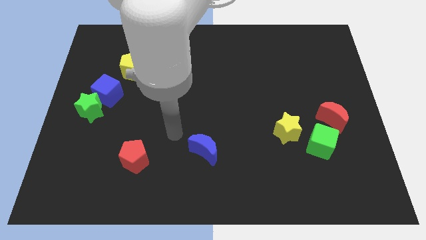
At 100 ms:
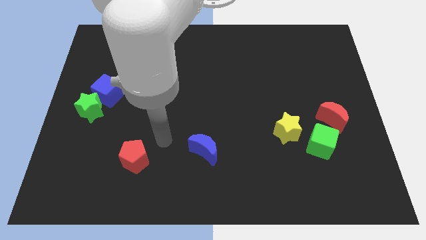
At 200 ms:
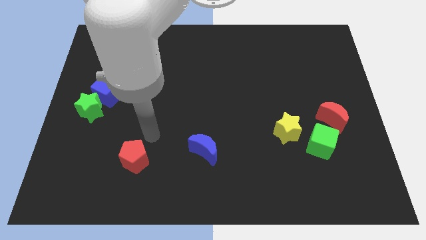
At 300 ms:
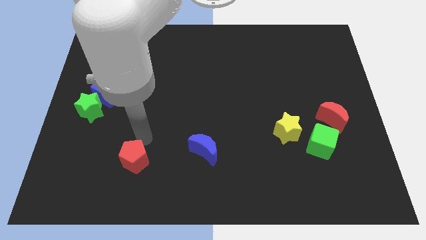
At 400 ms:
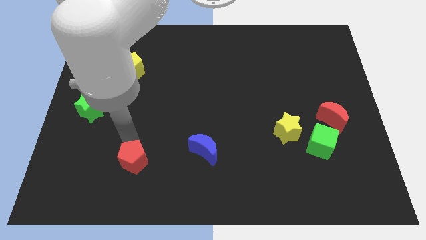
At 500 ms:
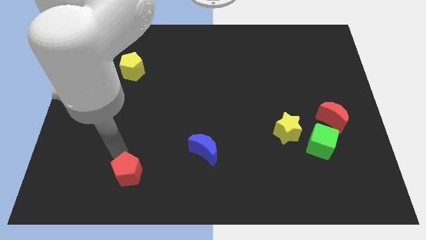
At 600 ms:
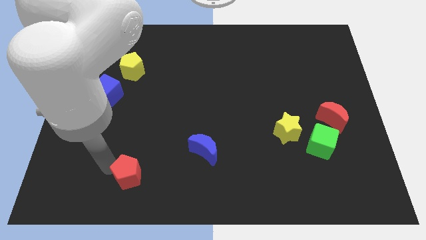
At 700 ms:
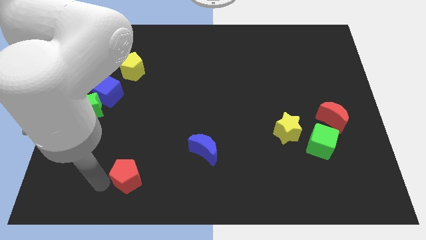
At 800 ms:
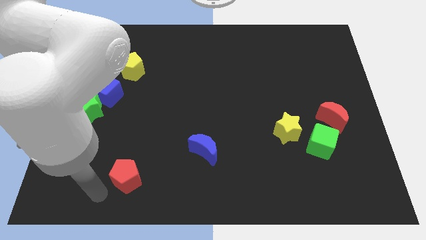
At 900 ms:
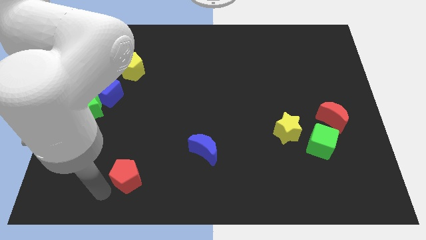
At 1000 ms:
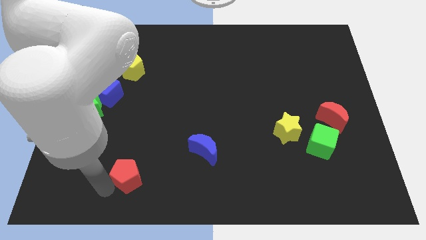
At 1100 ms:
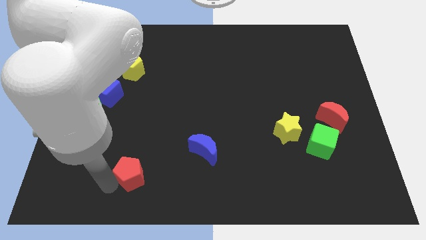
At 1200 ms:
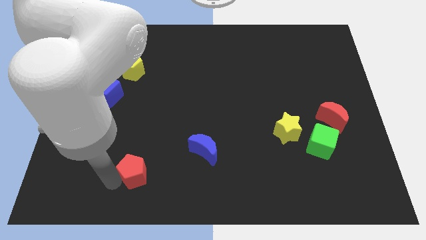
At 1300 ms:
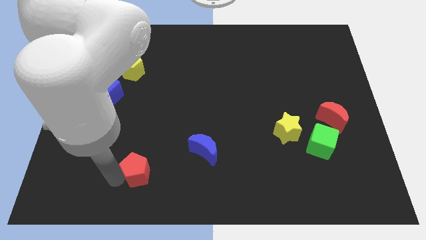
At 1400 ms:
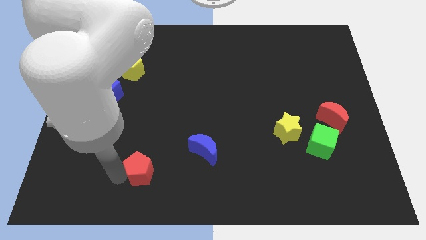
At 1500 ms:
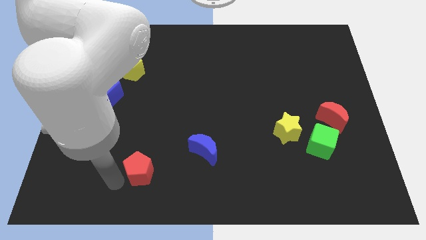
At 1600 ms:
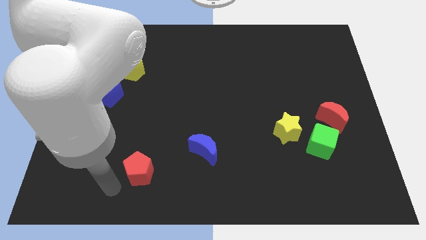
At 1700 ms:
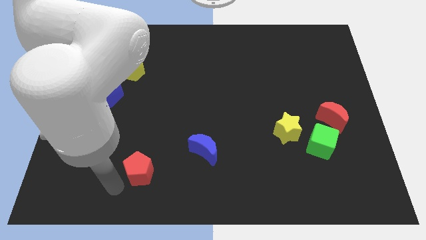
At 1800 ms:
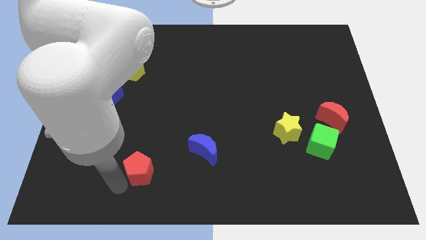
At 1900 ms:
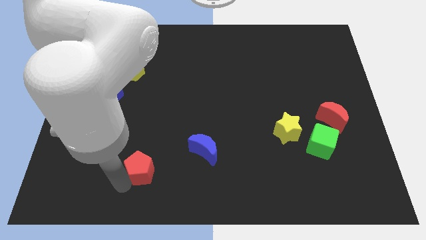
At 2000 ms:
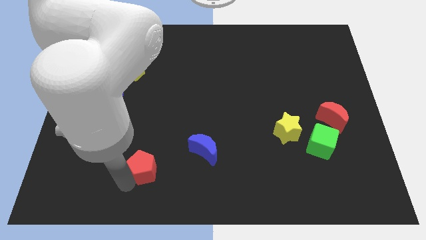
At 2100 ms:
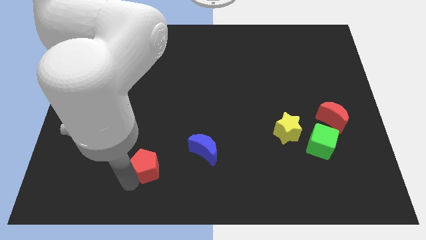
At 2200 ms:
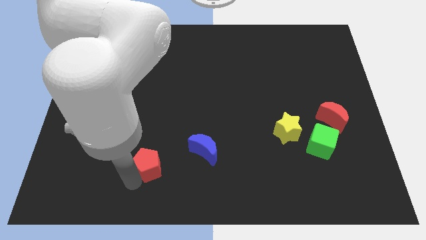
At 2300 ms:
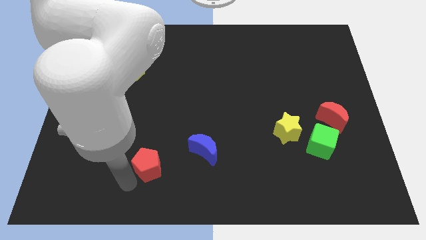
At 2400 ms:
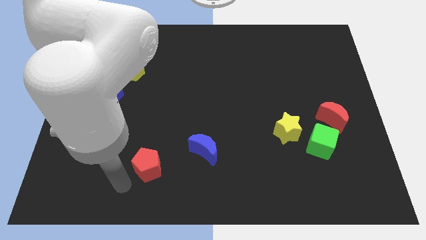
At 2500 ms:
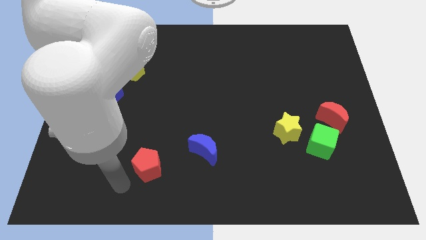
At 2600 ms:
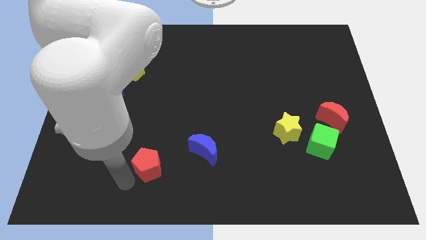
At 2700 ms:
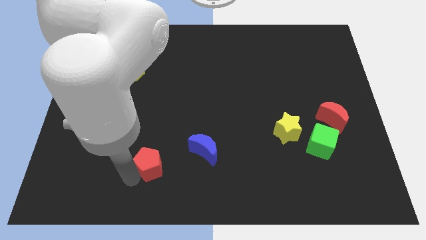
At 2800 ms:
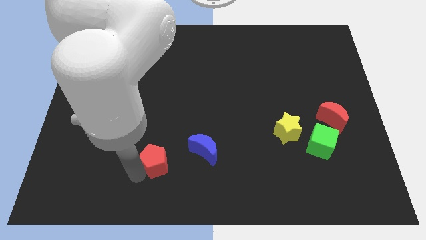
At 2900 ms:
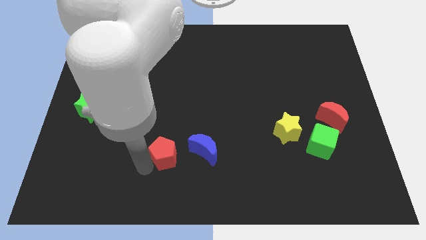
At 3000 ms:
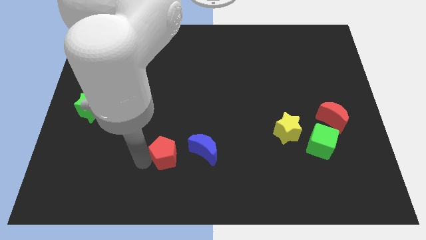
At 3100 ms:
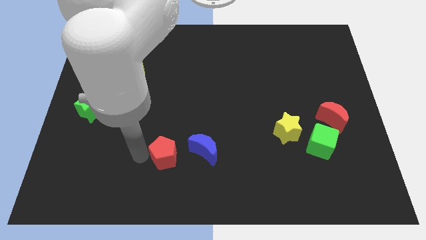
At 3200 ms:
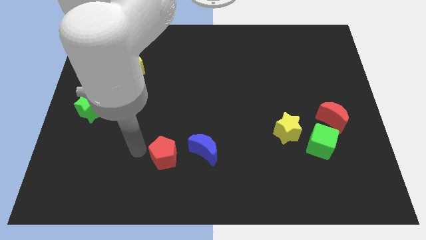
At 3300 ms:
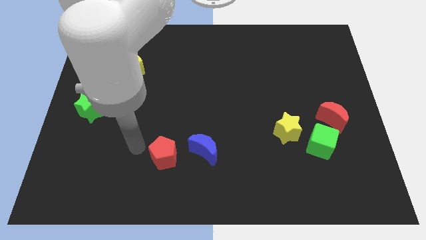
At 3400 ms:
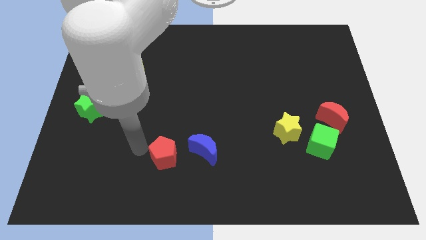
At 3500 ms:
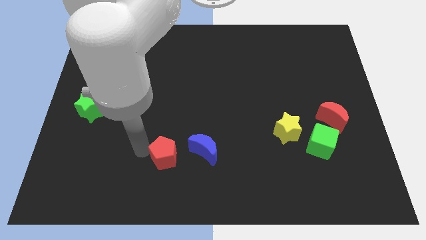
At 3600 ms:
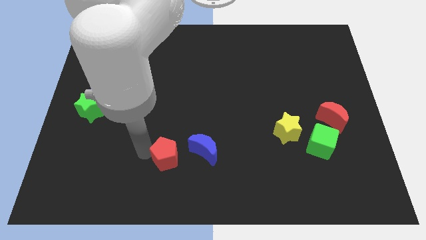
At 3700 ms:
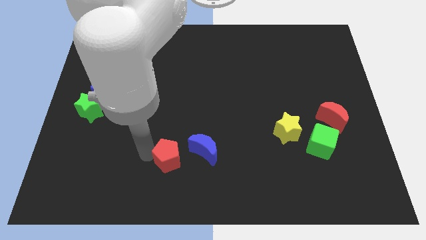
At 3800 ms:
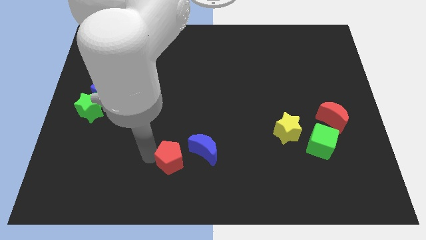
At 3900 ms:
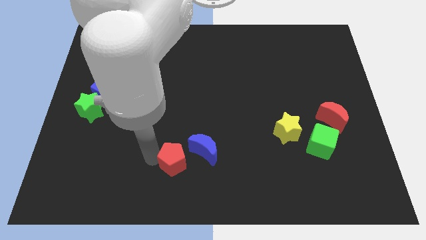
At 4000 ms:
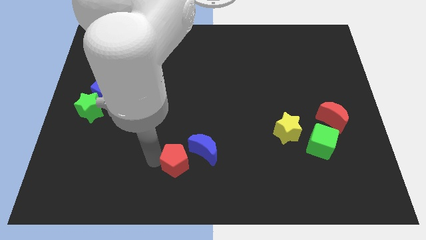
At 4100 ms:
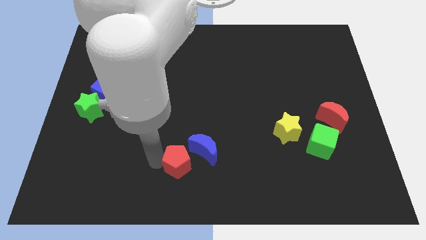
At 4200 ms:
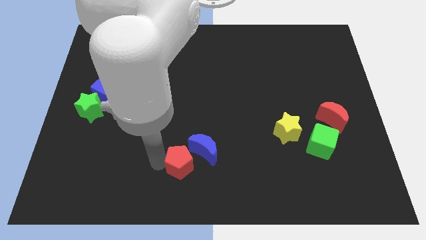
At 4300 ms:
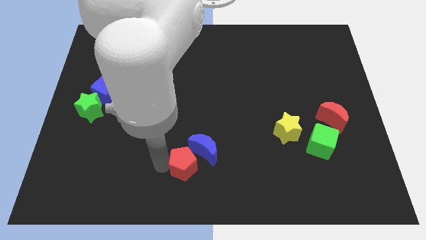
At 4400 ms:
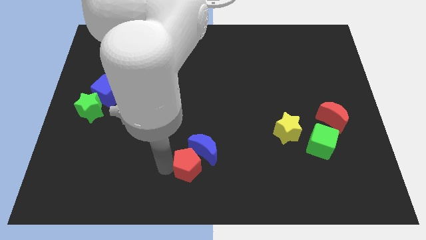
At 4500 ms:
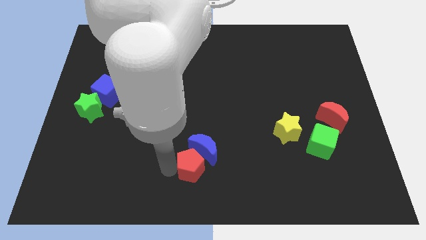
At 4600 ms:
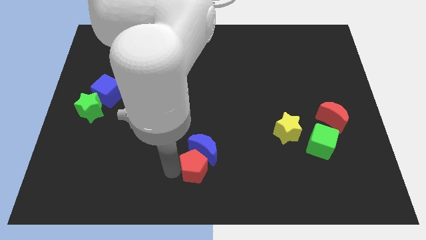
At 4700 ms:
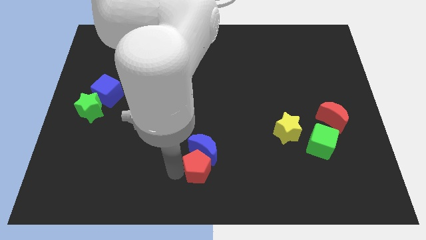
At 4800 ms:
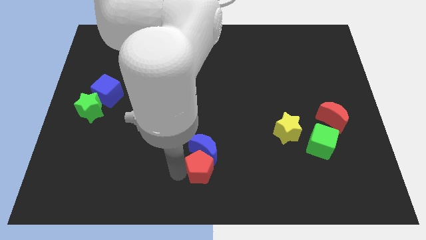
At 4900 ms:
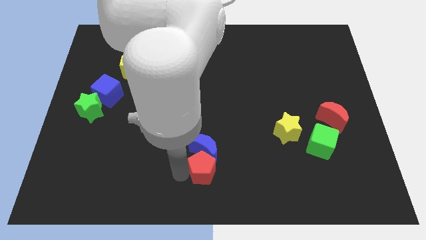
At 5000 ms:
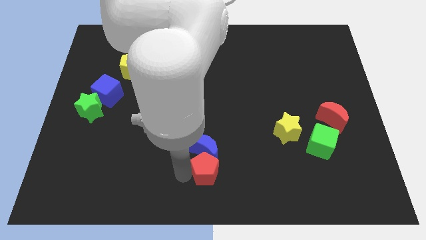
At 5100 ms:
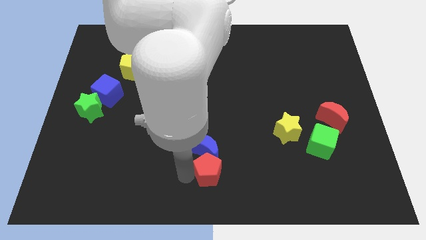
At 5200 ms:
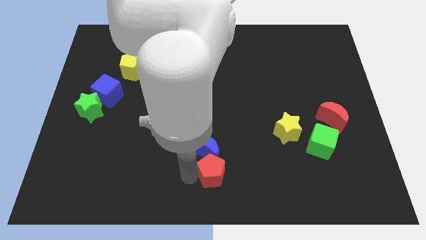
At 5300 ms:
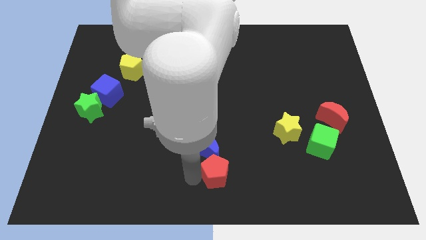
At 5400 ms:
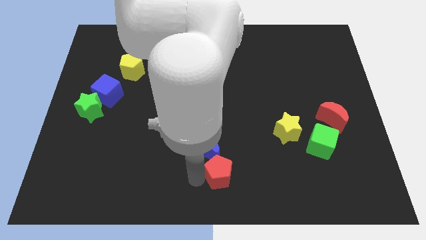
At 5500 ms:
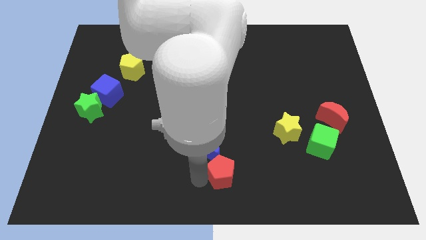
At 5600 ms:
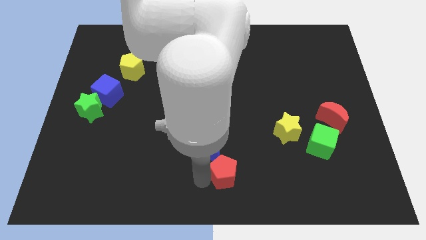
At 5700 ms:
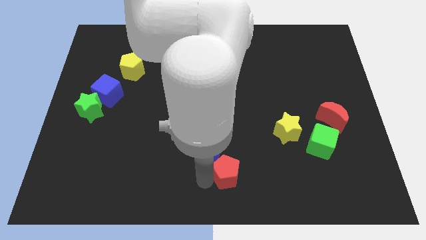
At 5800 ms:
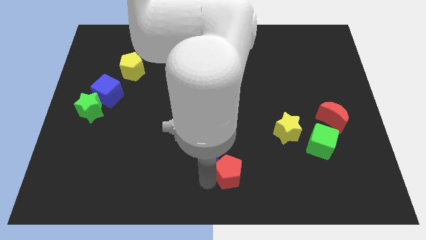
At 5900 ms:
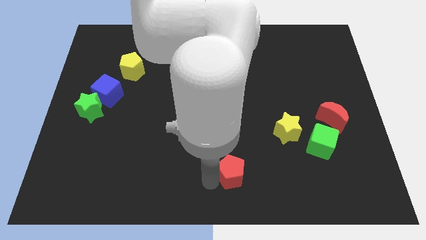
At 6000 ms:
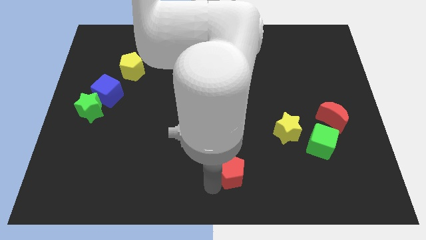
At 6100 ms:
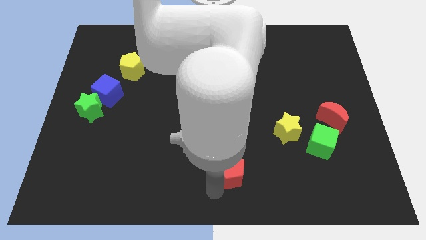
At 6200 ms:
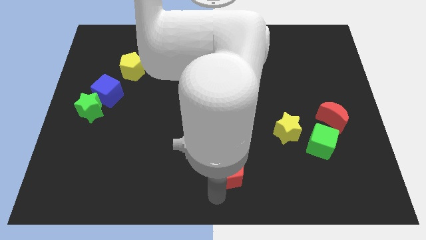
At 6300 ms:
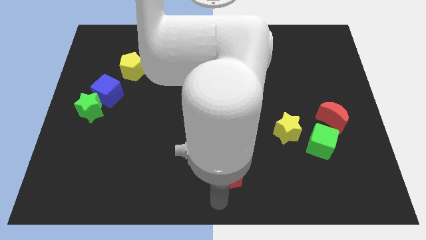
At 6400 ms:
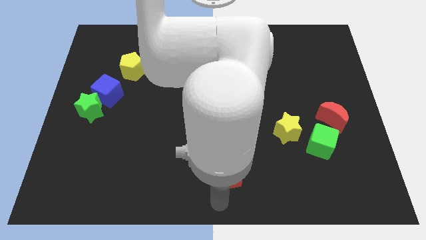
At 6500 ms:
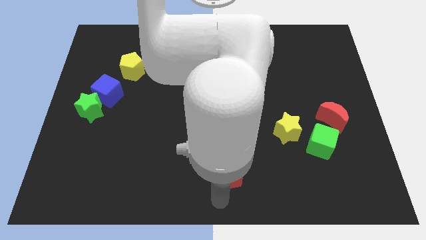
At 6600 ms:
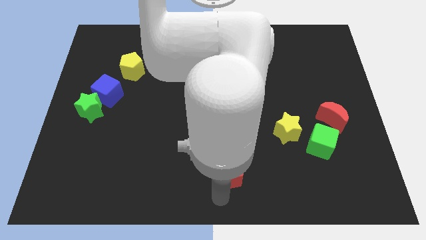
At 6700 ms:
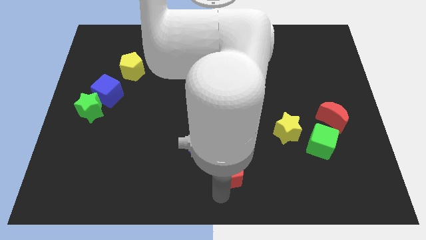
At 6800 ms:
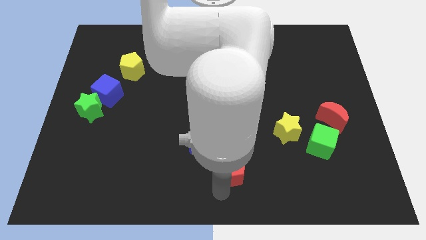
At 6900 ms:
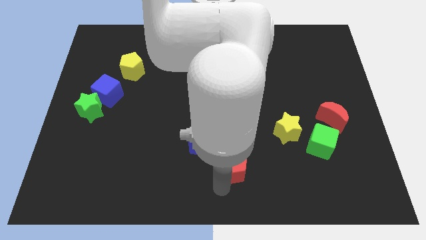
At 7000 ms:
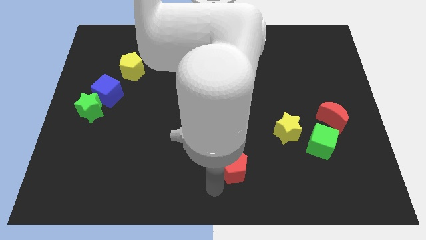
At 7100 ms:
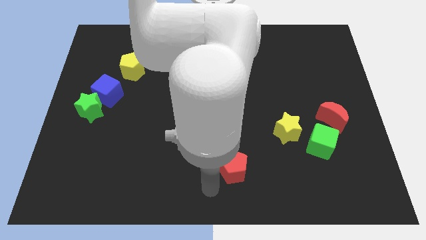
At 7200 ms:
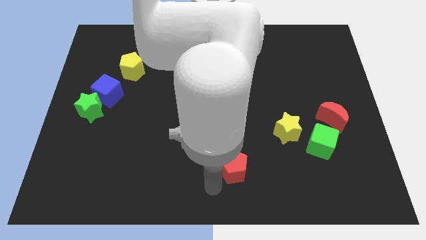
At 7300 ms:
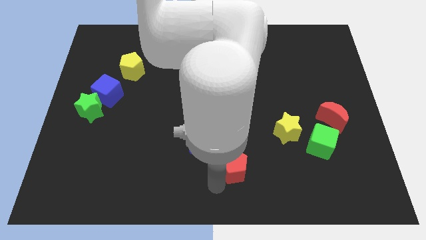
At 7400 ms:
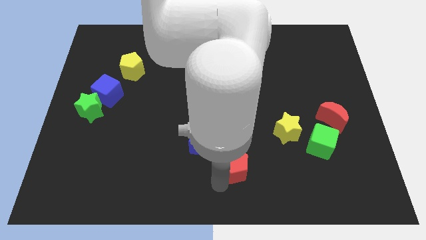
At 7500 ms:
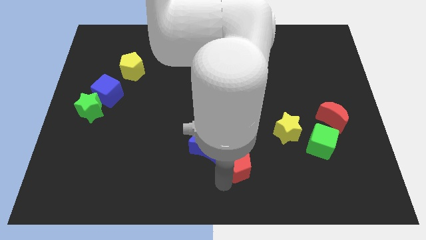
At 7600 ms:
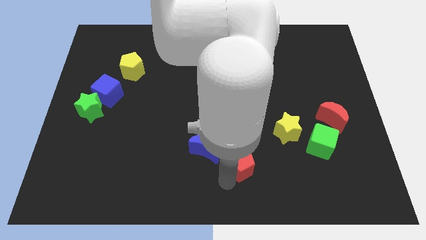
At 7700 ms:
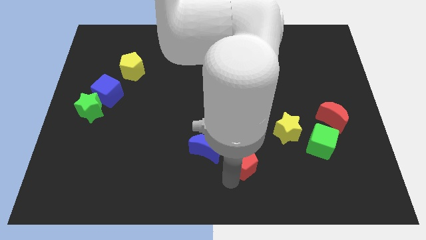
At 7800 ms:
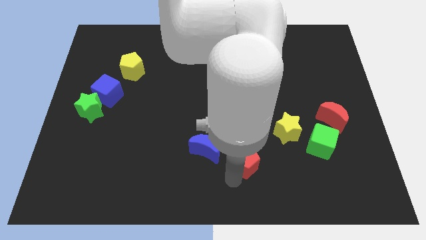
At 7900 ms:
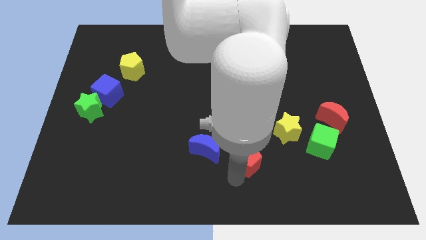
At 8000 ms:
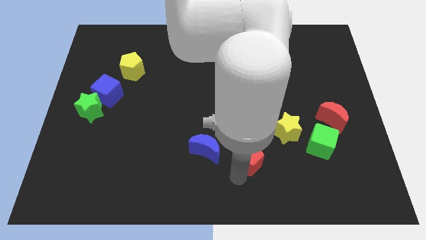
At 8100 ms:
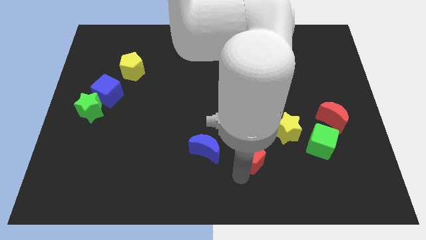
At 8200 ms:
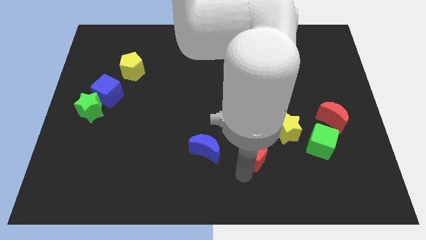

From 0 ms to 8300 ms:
put the red pentagon just left of the green cube
